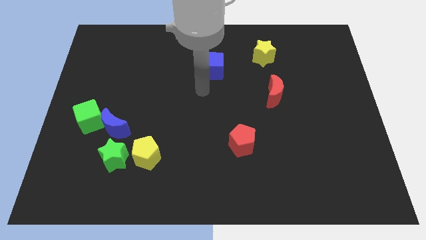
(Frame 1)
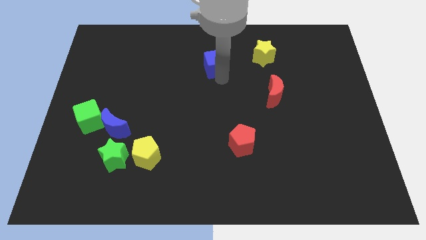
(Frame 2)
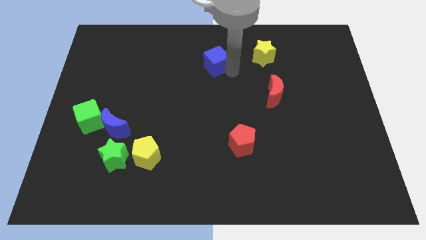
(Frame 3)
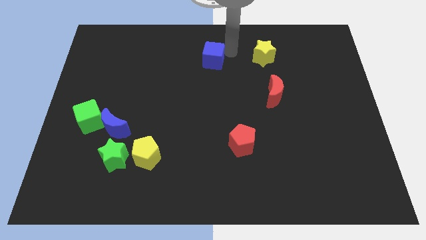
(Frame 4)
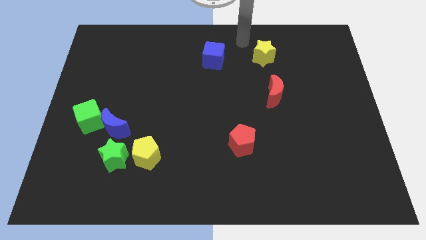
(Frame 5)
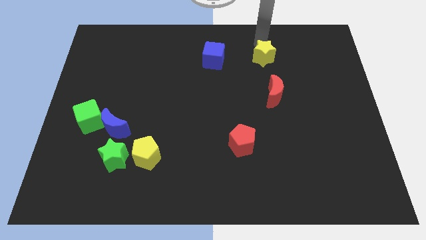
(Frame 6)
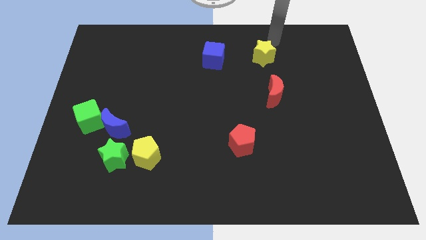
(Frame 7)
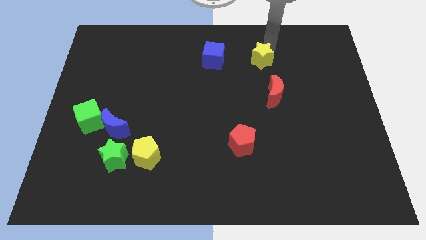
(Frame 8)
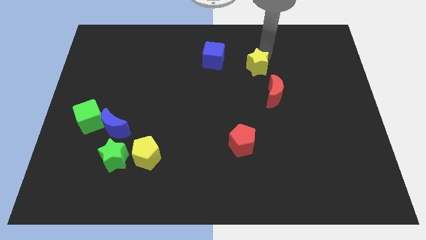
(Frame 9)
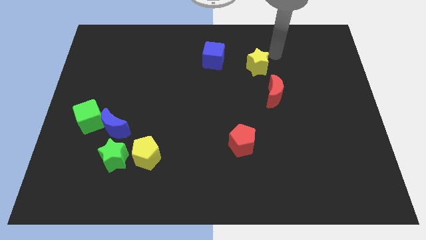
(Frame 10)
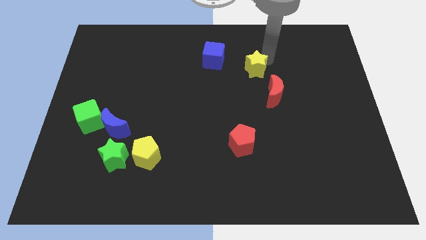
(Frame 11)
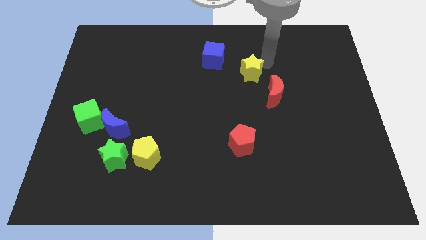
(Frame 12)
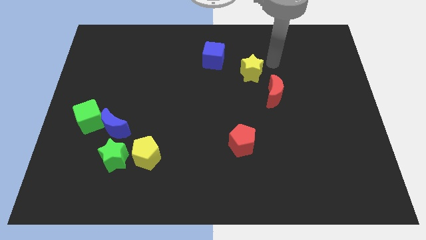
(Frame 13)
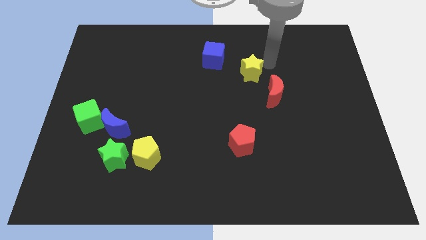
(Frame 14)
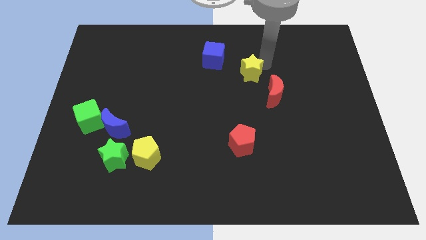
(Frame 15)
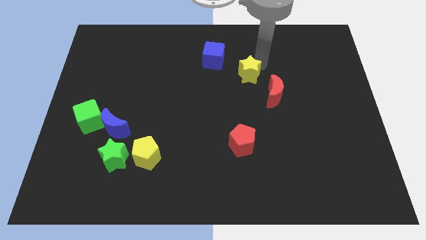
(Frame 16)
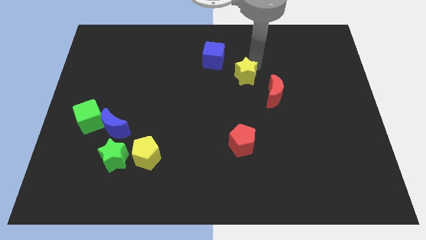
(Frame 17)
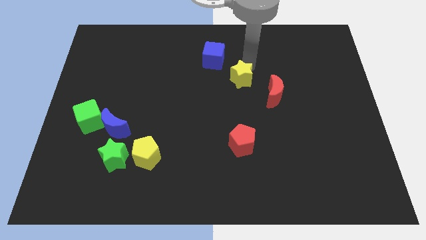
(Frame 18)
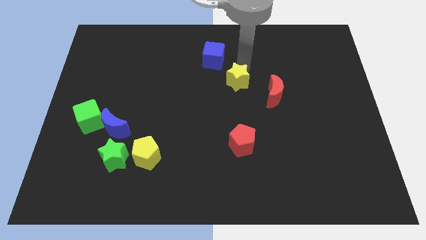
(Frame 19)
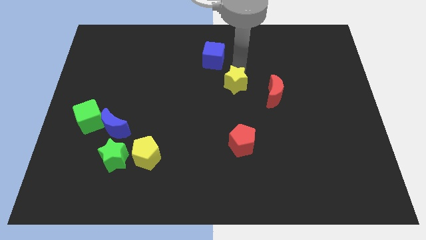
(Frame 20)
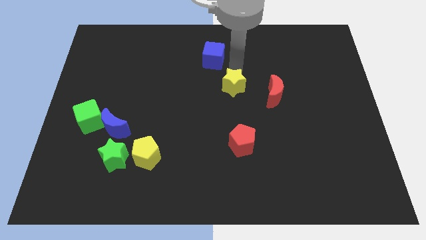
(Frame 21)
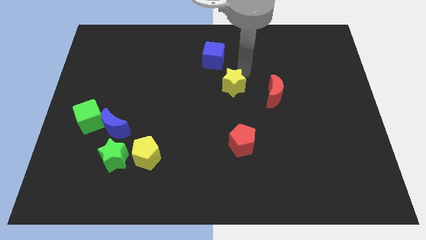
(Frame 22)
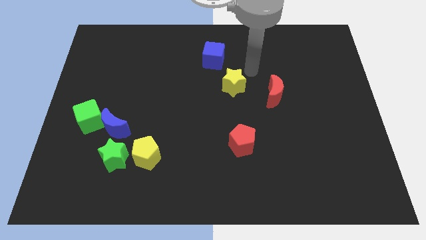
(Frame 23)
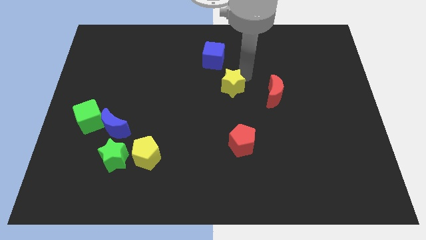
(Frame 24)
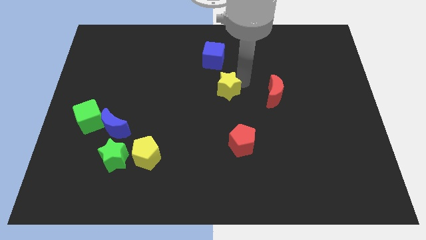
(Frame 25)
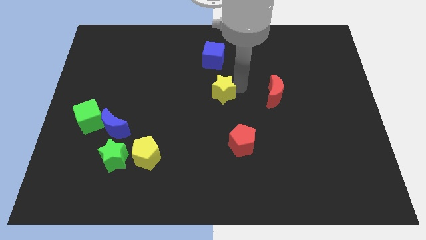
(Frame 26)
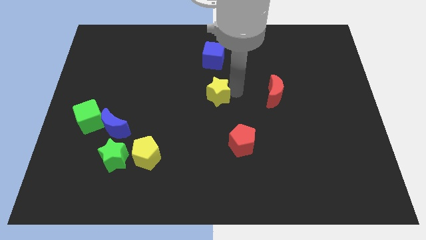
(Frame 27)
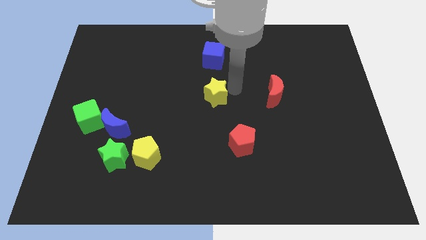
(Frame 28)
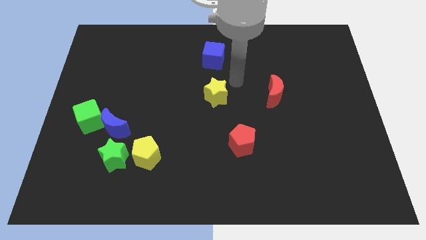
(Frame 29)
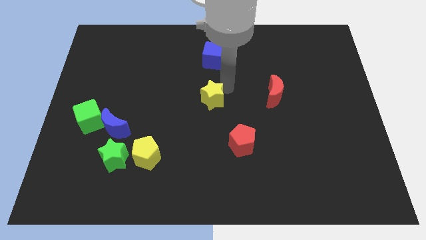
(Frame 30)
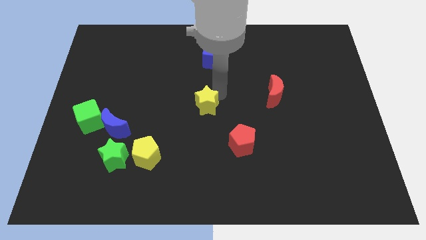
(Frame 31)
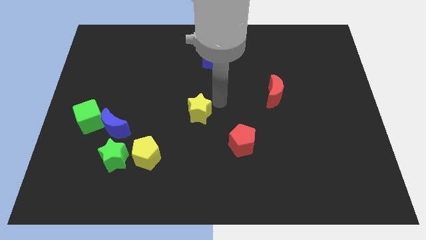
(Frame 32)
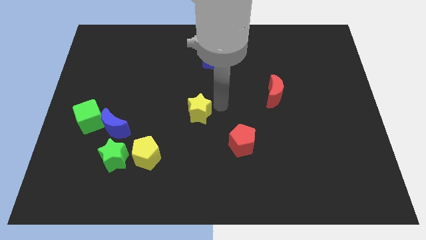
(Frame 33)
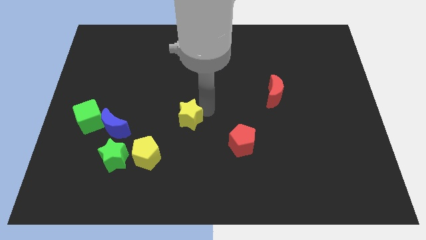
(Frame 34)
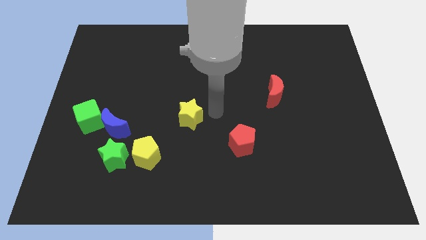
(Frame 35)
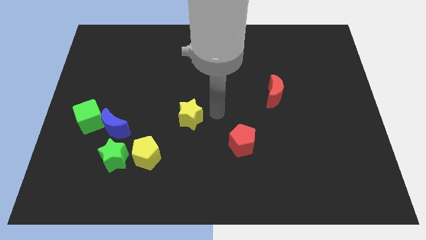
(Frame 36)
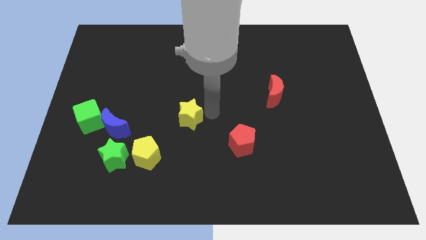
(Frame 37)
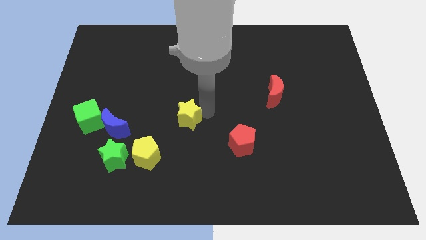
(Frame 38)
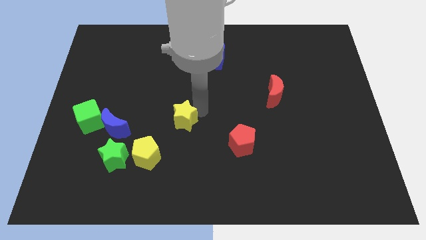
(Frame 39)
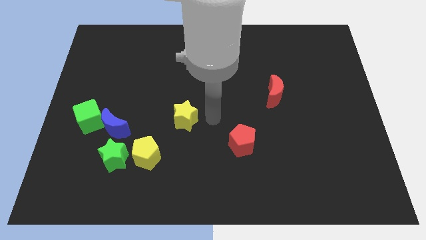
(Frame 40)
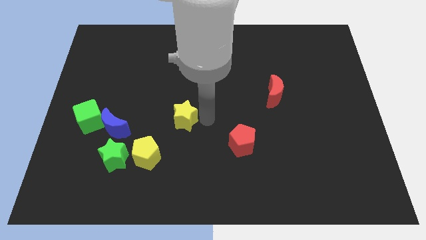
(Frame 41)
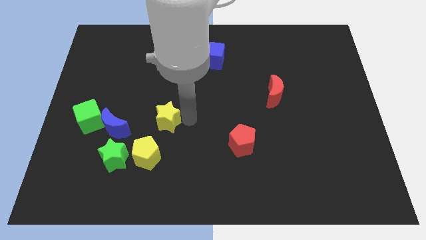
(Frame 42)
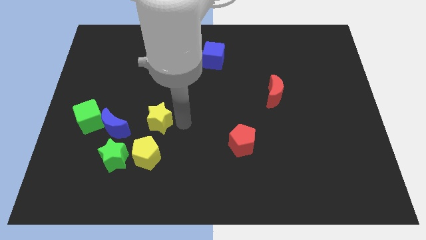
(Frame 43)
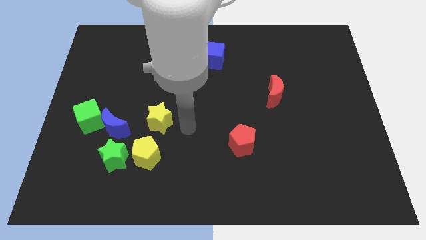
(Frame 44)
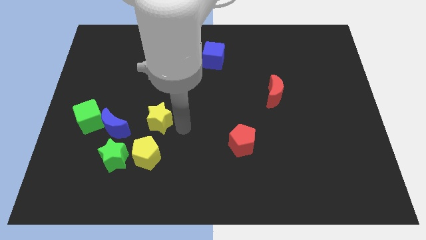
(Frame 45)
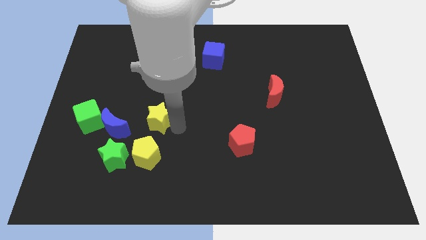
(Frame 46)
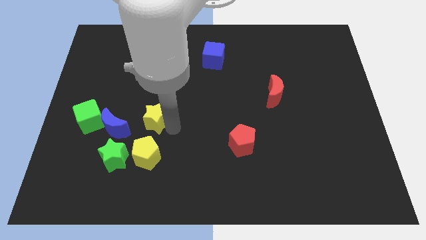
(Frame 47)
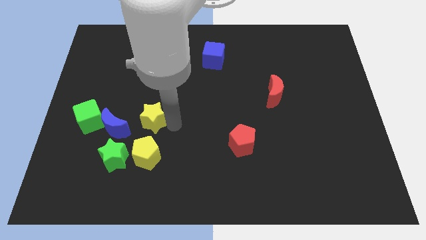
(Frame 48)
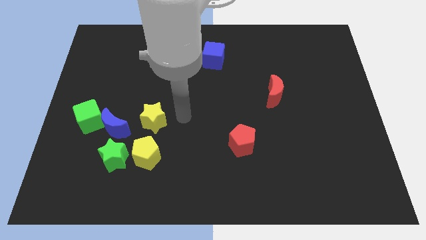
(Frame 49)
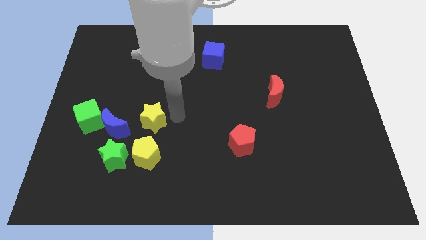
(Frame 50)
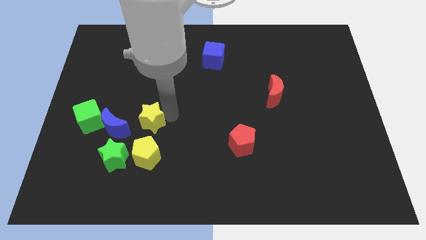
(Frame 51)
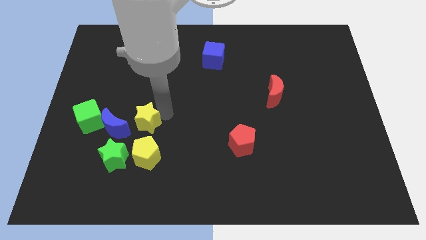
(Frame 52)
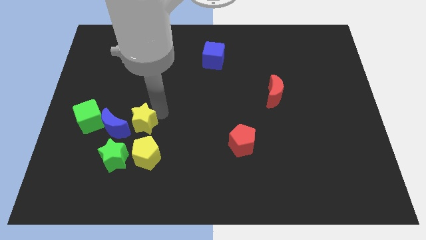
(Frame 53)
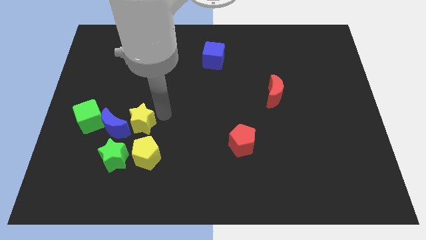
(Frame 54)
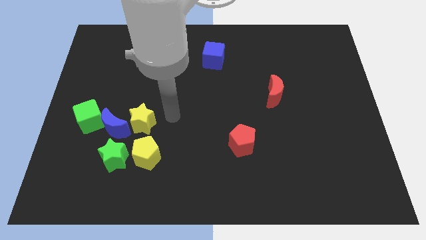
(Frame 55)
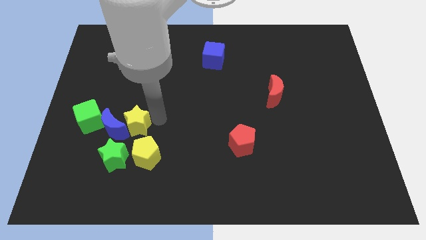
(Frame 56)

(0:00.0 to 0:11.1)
move the yellow star to the blue moon

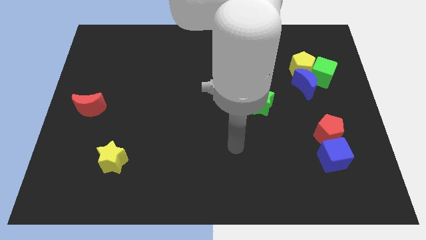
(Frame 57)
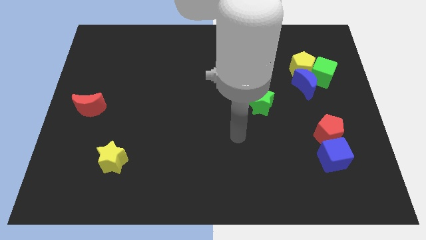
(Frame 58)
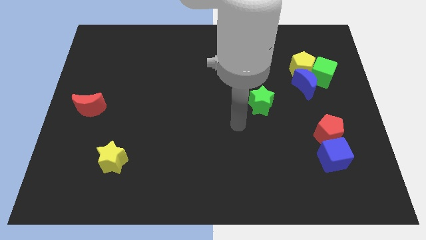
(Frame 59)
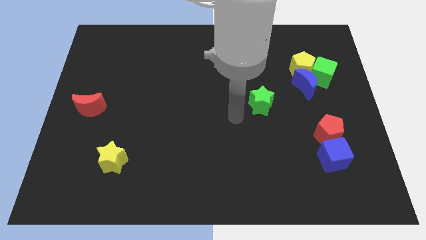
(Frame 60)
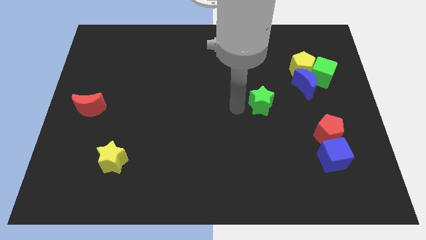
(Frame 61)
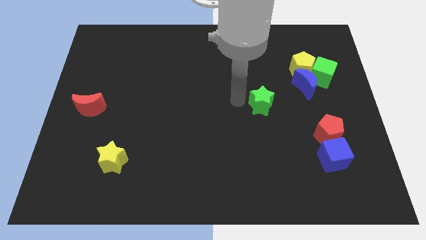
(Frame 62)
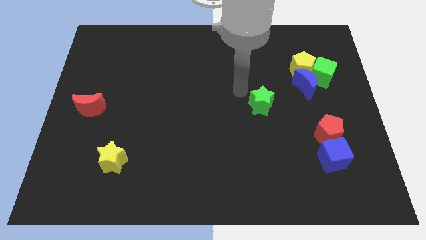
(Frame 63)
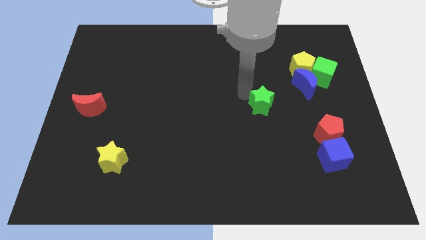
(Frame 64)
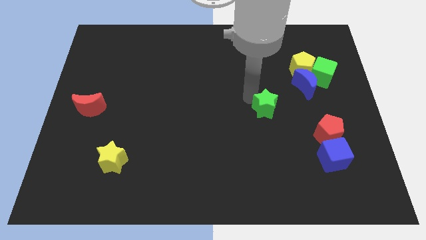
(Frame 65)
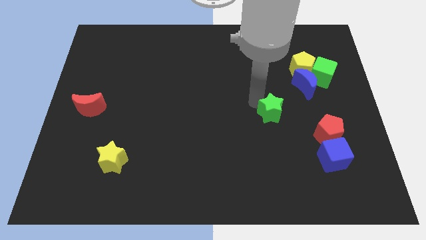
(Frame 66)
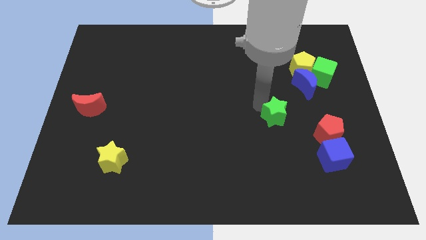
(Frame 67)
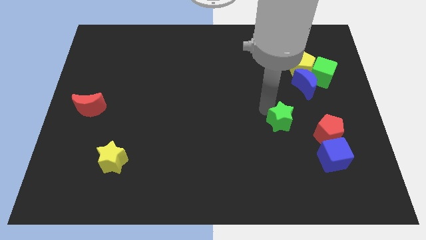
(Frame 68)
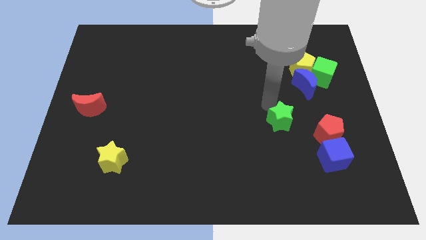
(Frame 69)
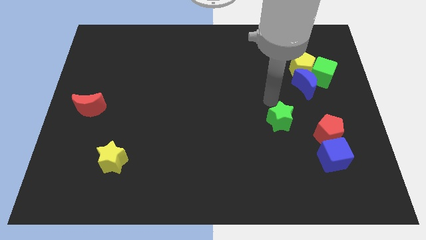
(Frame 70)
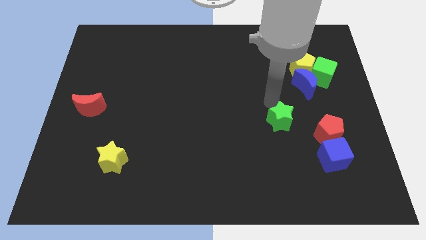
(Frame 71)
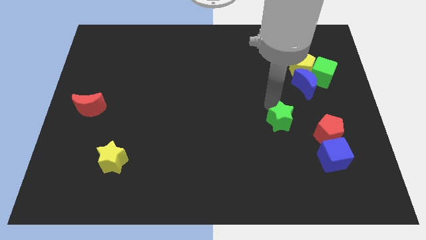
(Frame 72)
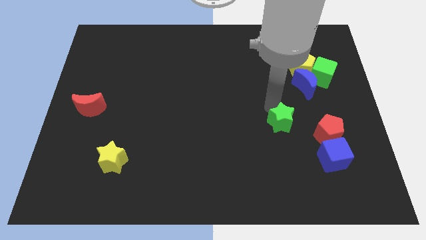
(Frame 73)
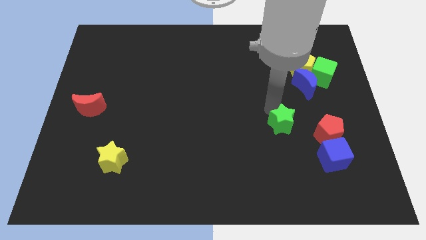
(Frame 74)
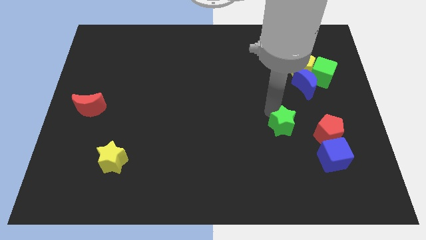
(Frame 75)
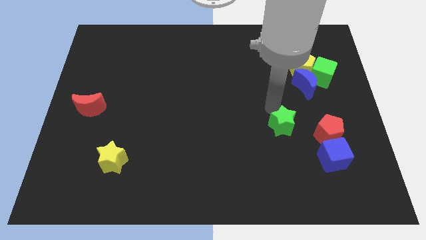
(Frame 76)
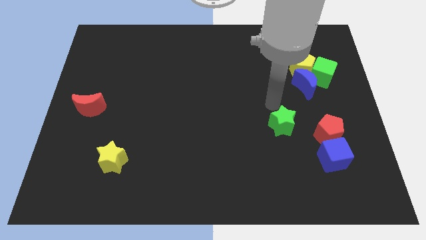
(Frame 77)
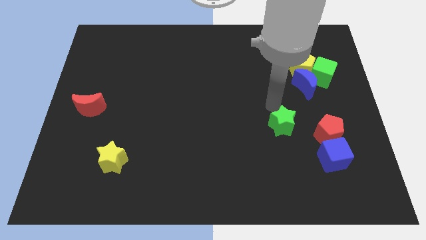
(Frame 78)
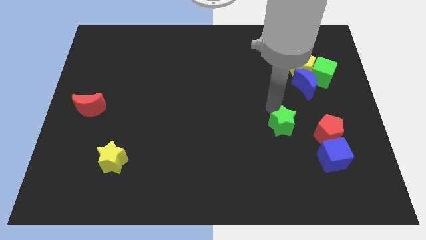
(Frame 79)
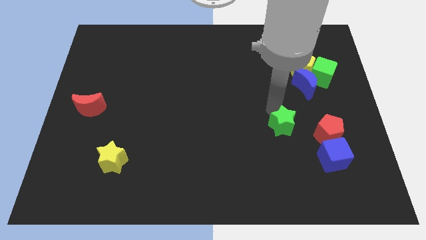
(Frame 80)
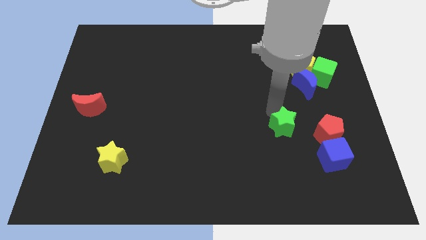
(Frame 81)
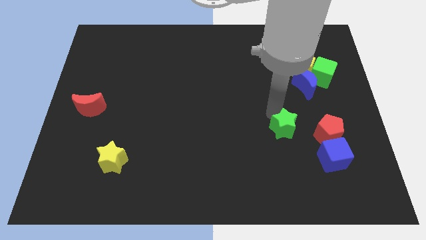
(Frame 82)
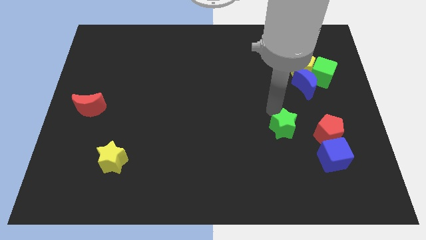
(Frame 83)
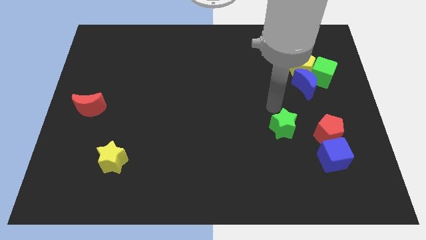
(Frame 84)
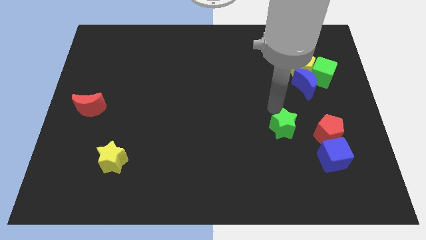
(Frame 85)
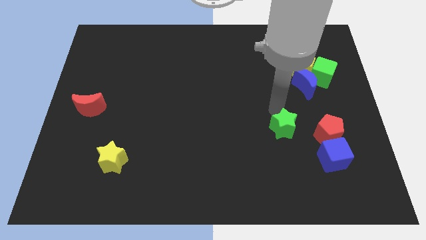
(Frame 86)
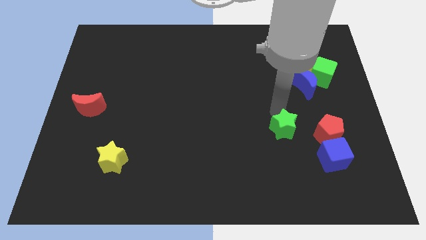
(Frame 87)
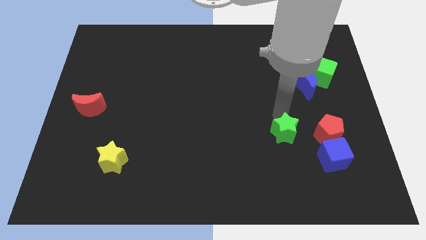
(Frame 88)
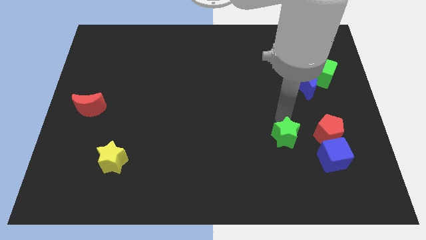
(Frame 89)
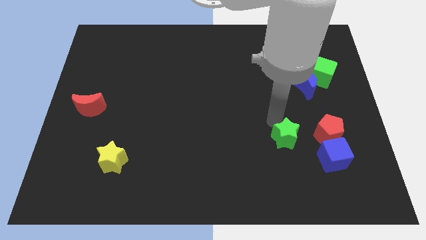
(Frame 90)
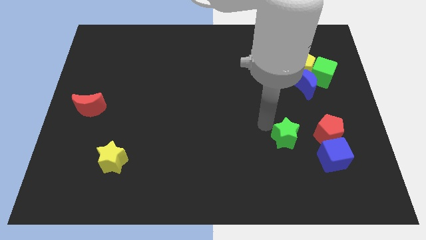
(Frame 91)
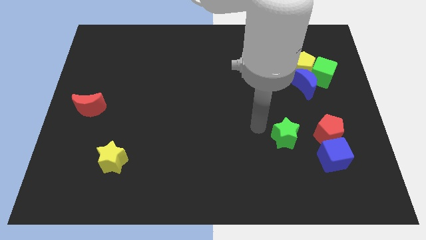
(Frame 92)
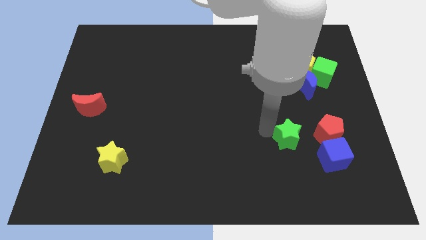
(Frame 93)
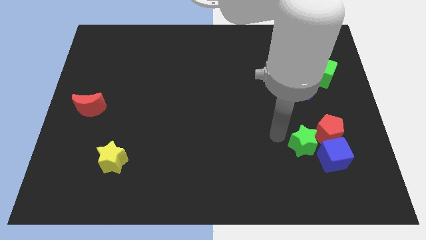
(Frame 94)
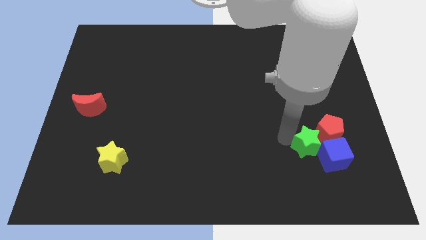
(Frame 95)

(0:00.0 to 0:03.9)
push the green star towards the blue cube
